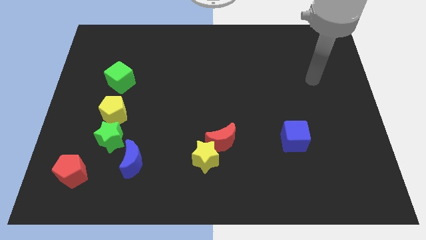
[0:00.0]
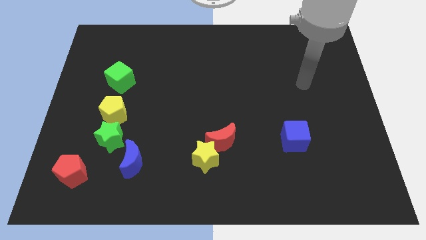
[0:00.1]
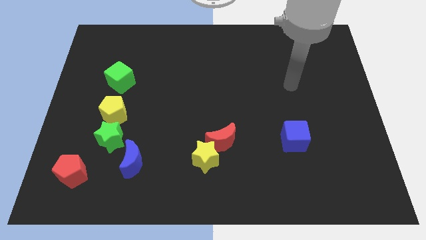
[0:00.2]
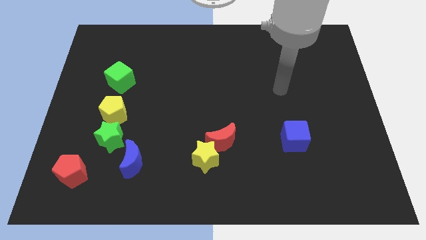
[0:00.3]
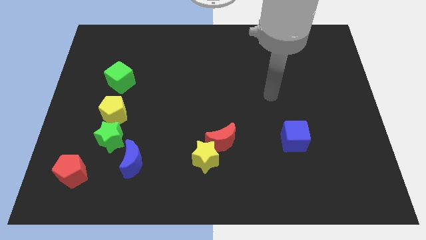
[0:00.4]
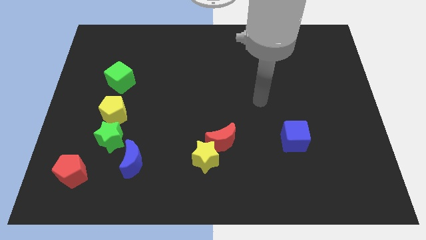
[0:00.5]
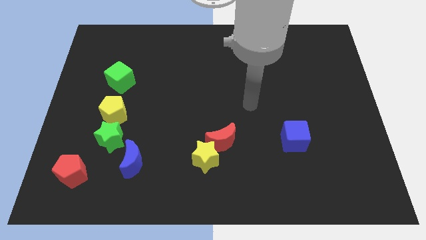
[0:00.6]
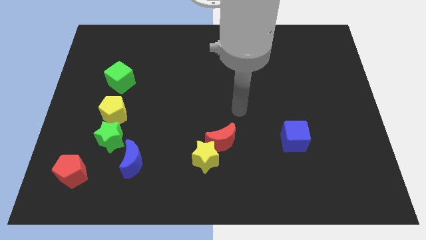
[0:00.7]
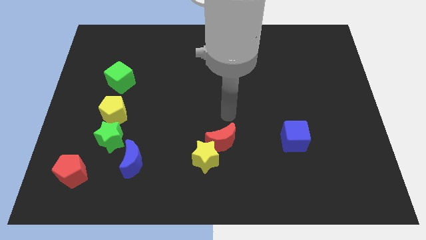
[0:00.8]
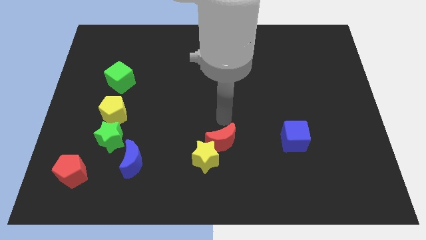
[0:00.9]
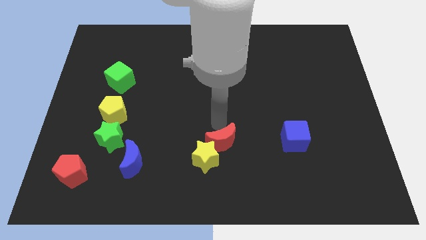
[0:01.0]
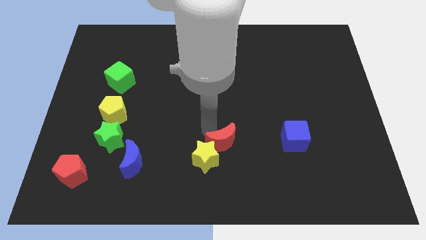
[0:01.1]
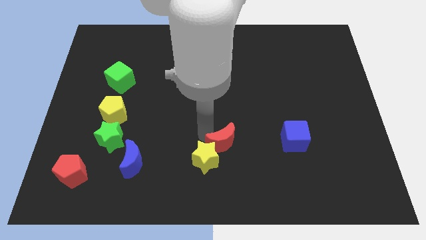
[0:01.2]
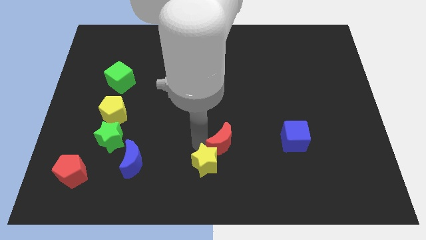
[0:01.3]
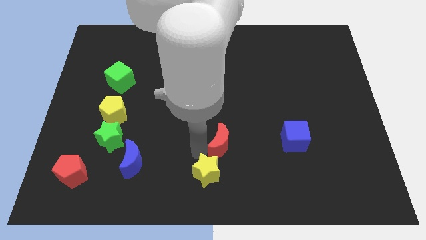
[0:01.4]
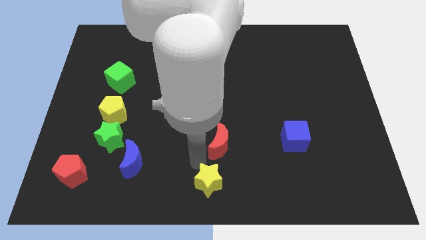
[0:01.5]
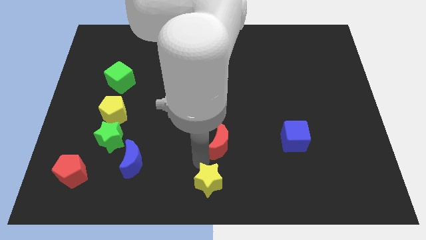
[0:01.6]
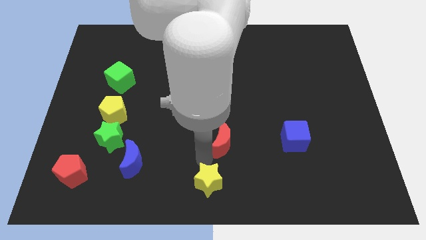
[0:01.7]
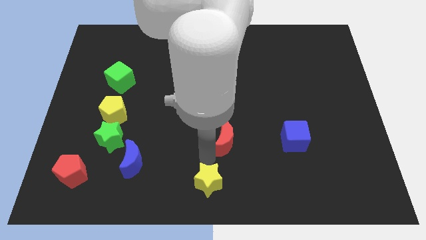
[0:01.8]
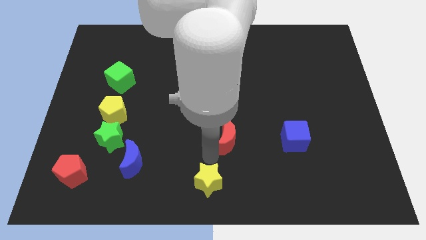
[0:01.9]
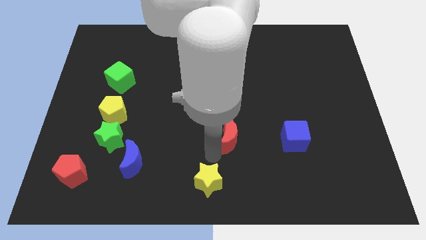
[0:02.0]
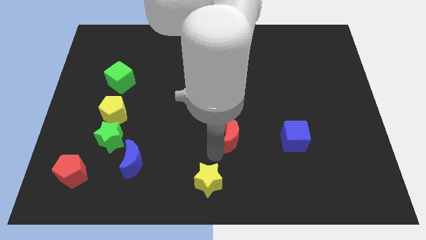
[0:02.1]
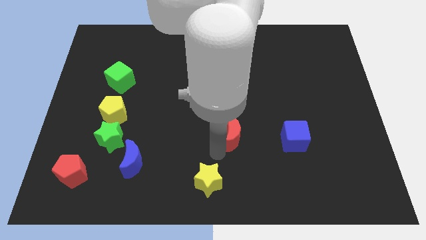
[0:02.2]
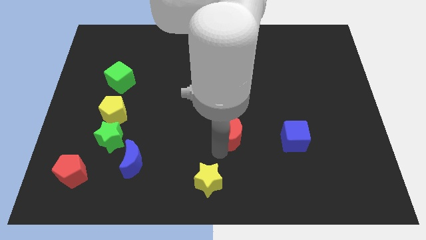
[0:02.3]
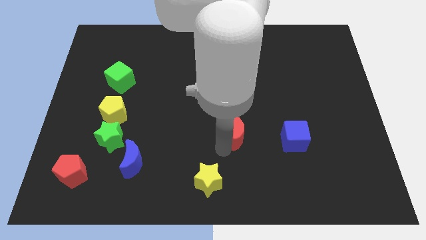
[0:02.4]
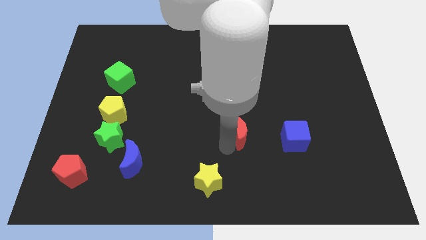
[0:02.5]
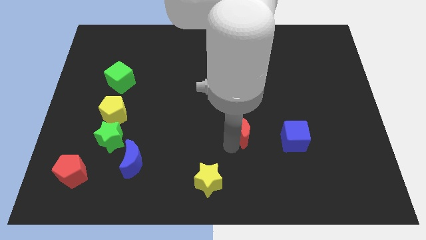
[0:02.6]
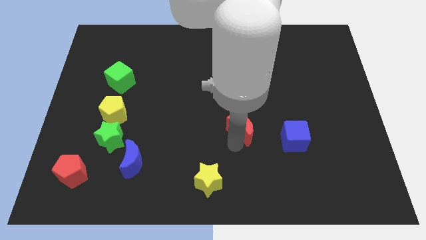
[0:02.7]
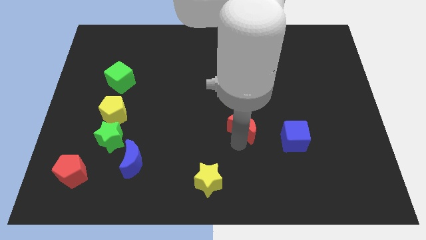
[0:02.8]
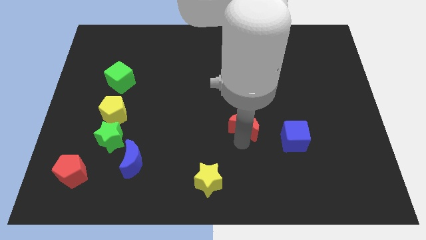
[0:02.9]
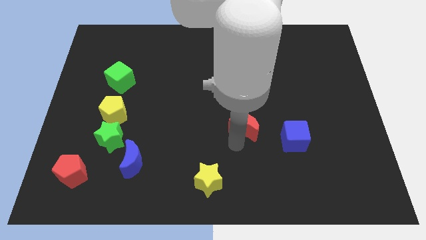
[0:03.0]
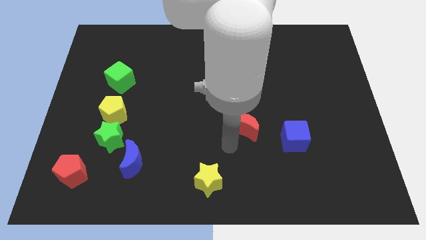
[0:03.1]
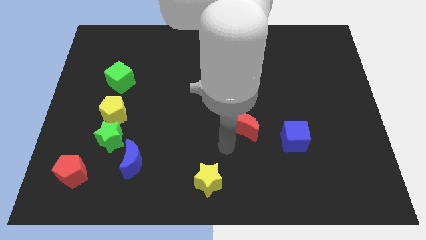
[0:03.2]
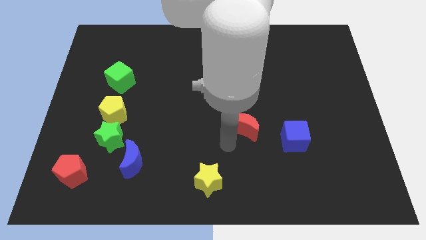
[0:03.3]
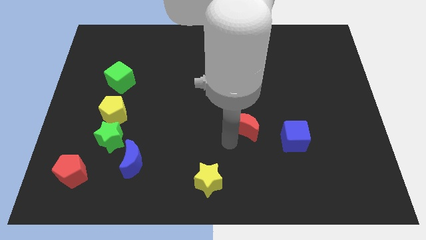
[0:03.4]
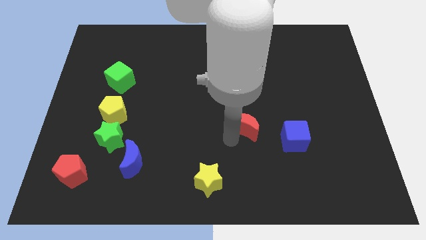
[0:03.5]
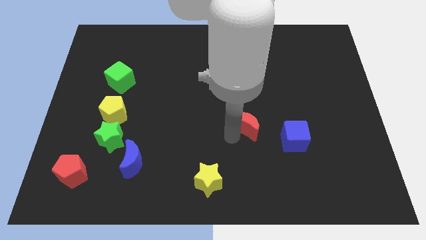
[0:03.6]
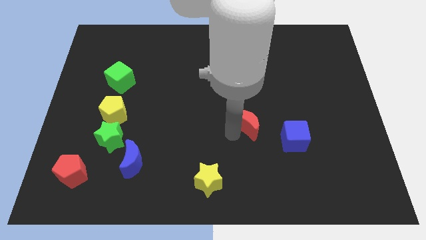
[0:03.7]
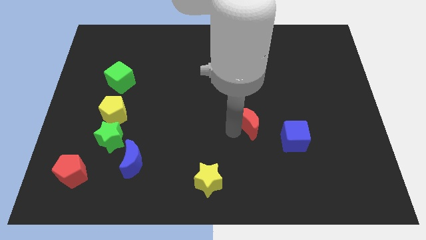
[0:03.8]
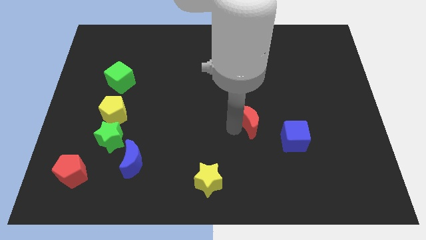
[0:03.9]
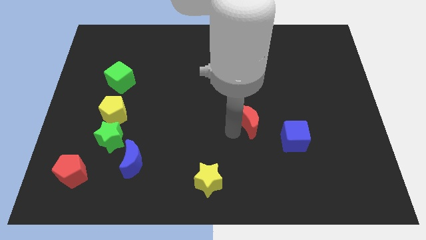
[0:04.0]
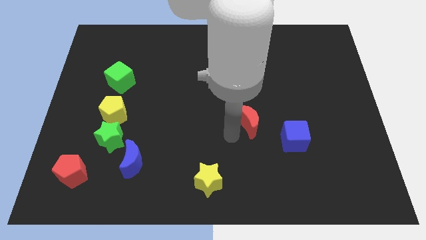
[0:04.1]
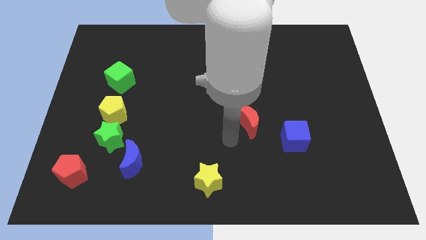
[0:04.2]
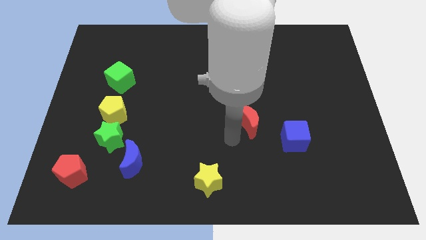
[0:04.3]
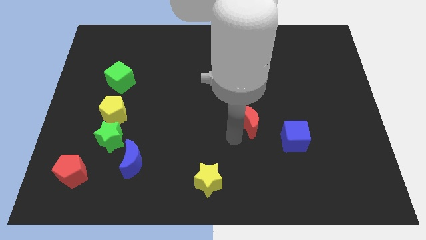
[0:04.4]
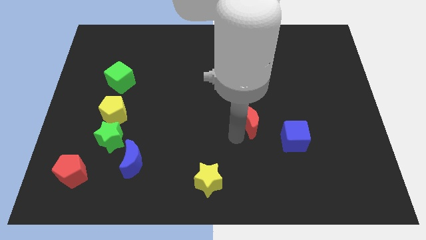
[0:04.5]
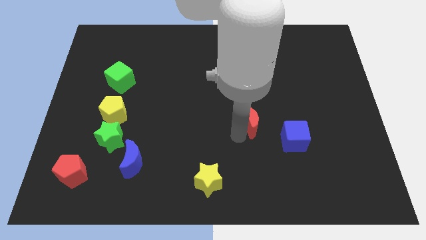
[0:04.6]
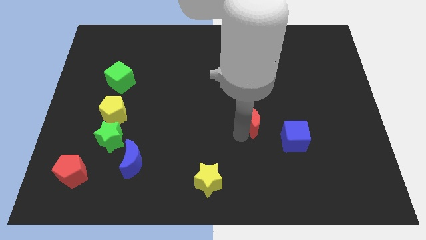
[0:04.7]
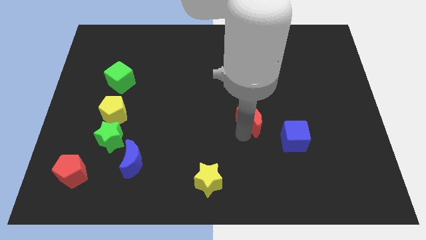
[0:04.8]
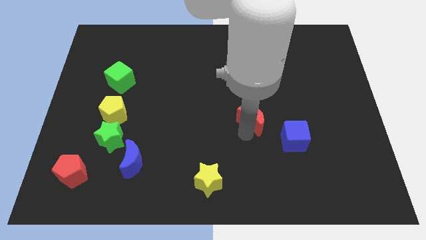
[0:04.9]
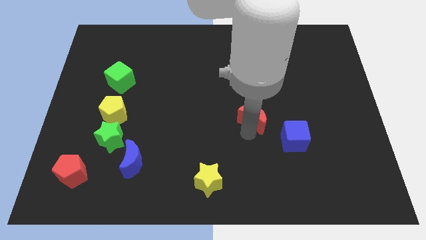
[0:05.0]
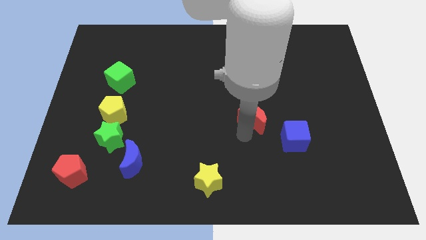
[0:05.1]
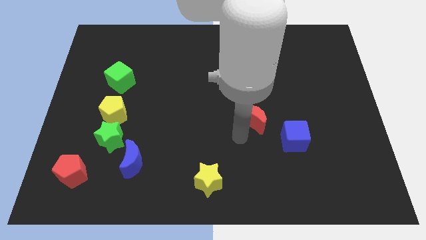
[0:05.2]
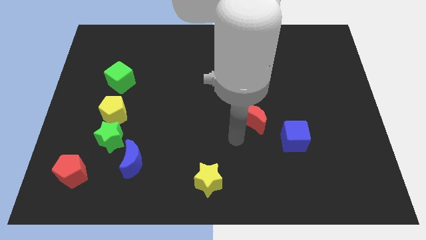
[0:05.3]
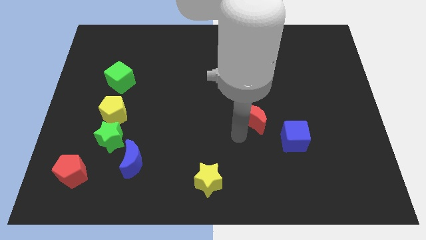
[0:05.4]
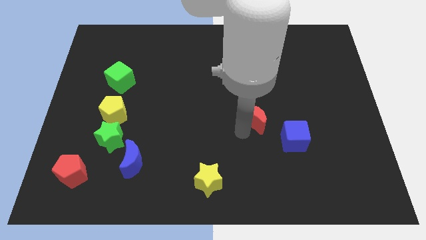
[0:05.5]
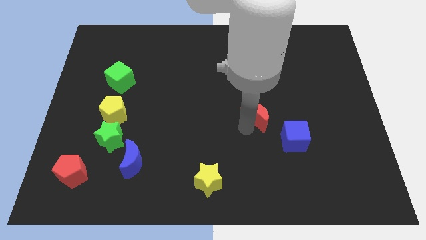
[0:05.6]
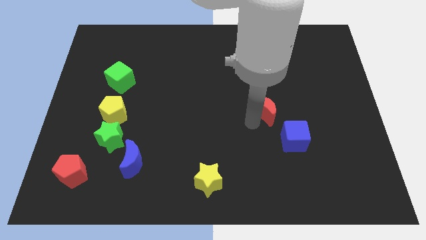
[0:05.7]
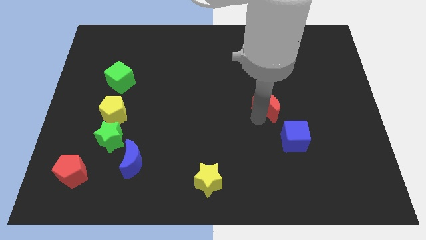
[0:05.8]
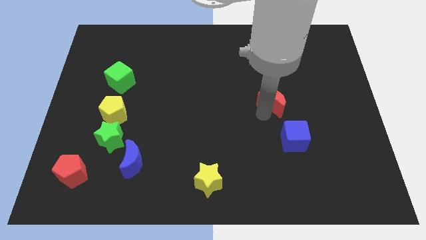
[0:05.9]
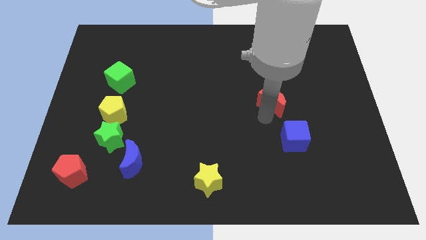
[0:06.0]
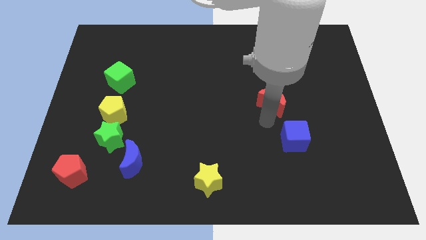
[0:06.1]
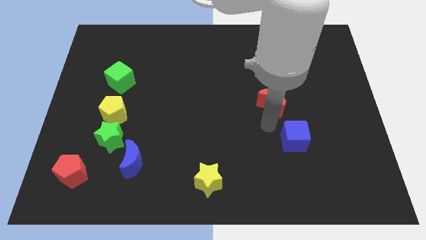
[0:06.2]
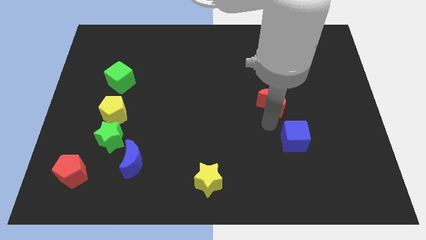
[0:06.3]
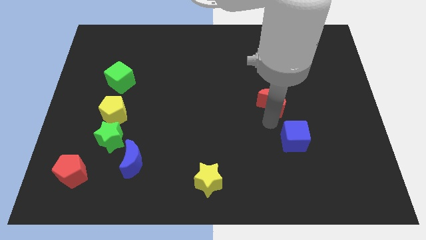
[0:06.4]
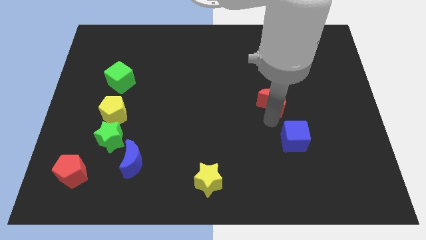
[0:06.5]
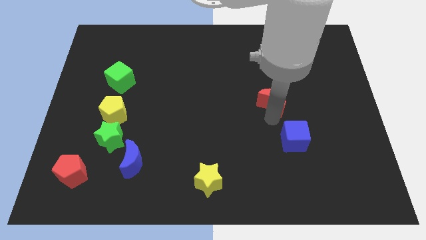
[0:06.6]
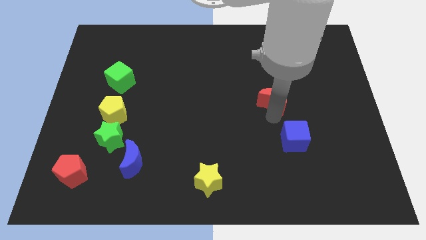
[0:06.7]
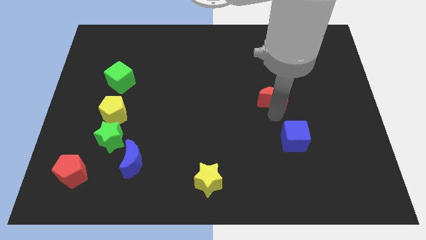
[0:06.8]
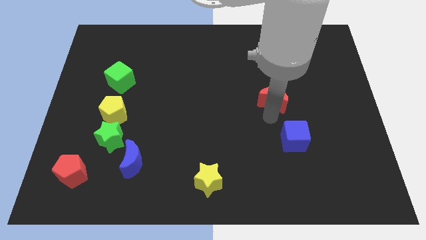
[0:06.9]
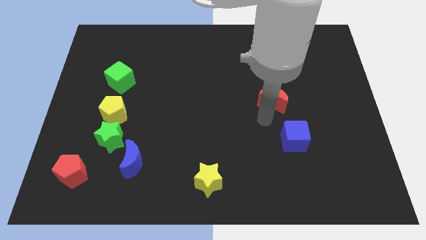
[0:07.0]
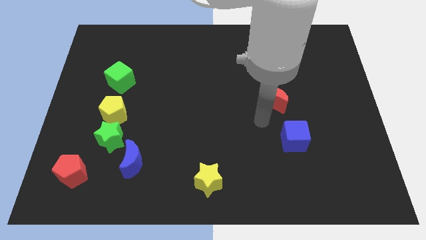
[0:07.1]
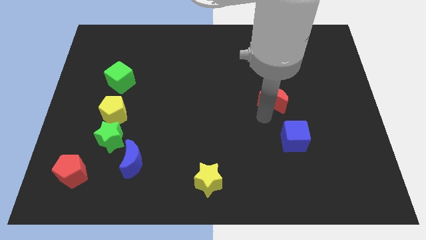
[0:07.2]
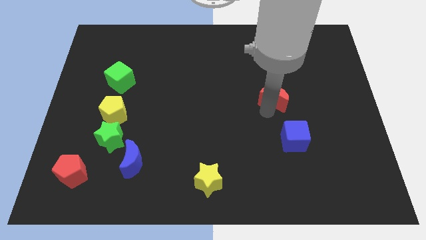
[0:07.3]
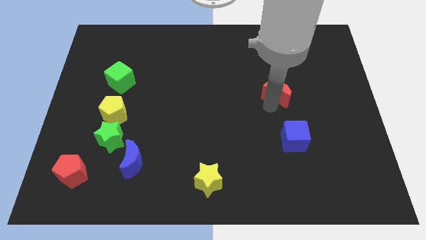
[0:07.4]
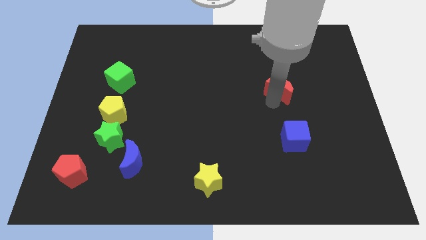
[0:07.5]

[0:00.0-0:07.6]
slide the red moon diagonally up and right

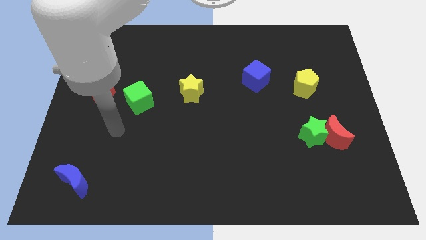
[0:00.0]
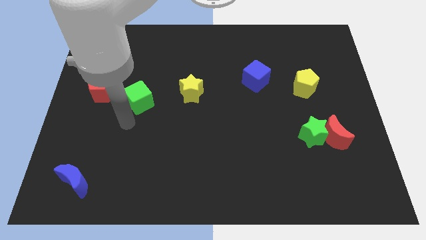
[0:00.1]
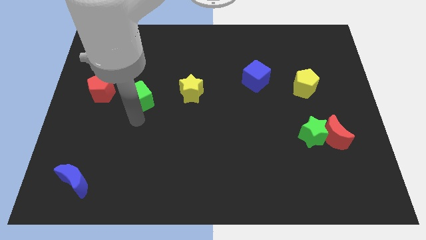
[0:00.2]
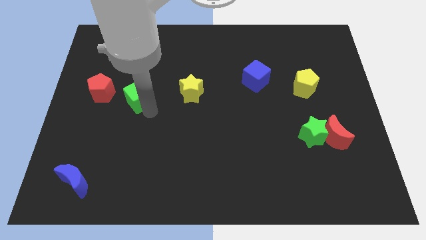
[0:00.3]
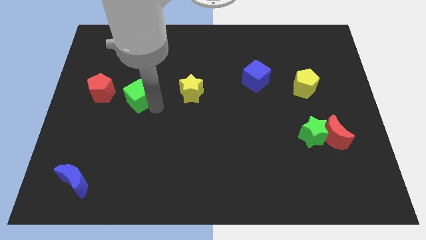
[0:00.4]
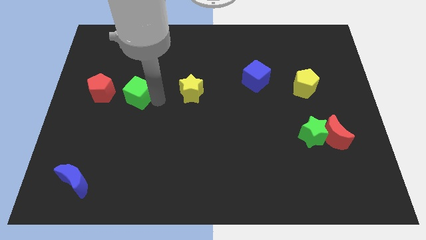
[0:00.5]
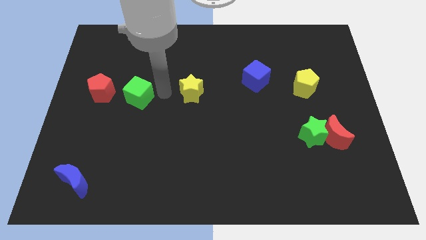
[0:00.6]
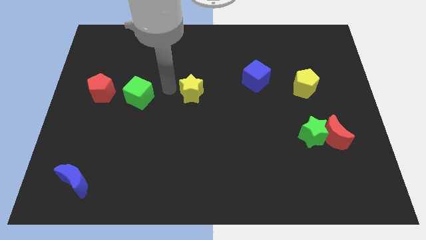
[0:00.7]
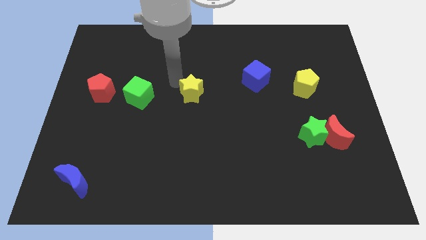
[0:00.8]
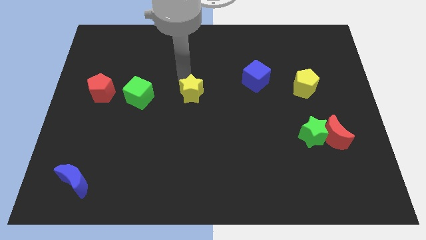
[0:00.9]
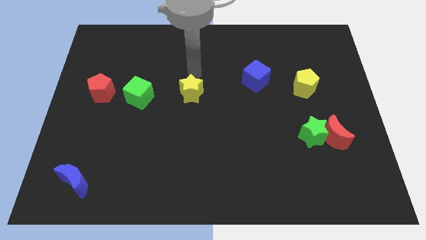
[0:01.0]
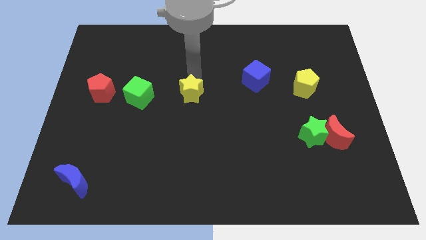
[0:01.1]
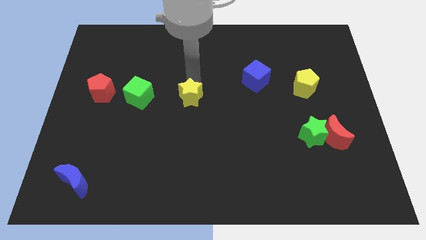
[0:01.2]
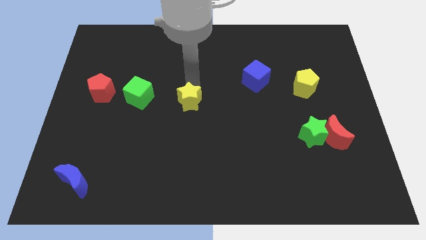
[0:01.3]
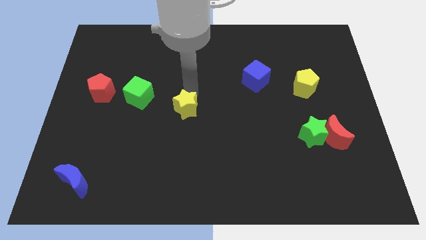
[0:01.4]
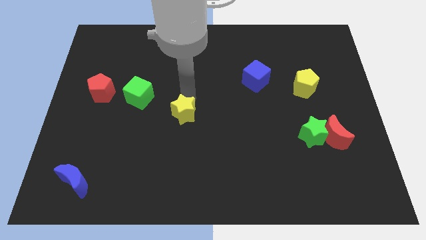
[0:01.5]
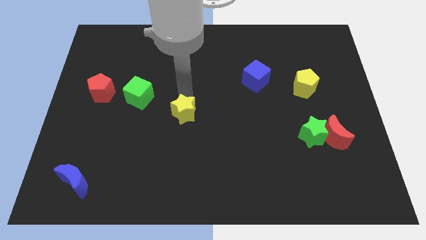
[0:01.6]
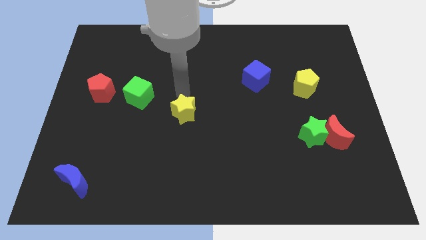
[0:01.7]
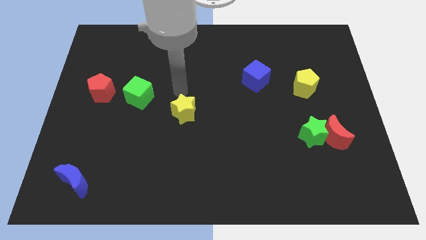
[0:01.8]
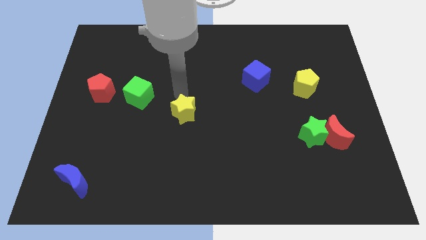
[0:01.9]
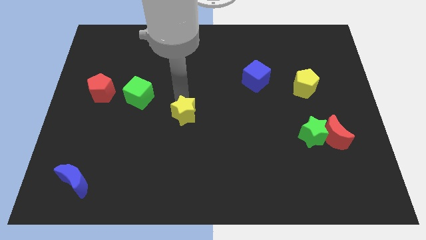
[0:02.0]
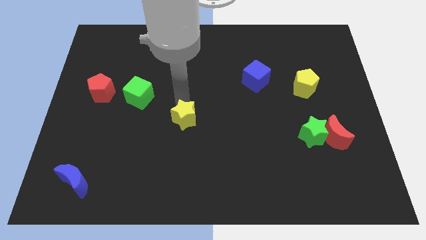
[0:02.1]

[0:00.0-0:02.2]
slide the yellow star downwards slightly
